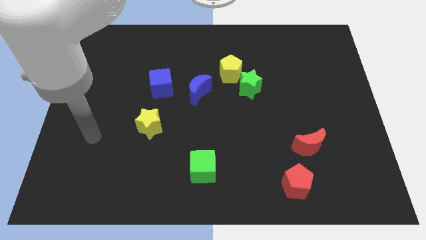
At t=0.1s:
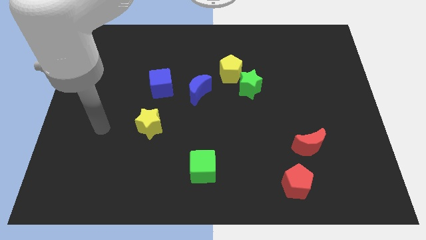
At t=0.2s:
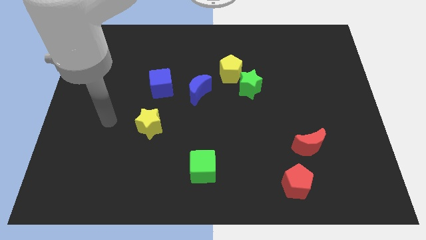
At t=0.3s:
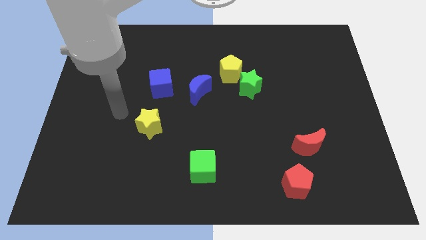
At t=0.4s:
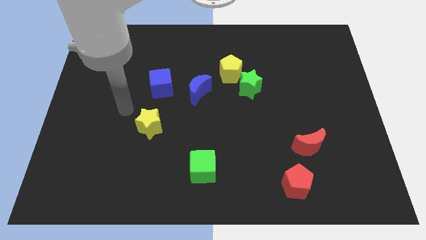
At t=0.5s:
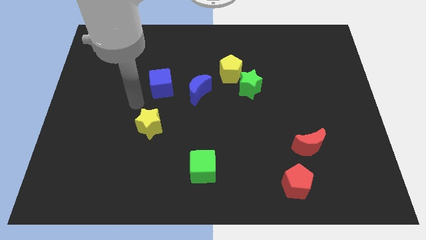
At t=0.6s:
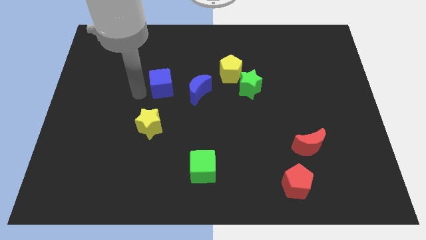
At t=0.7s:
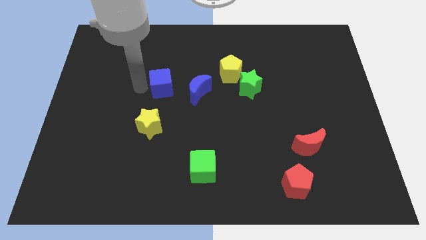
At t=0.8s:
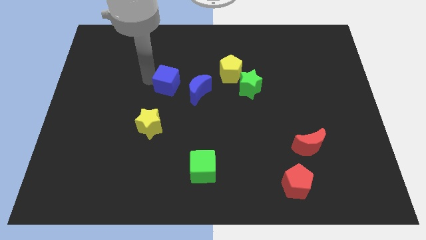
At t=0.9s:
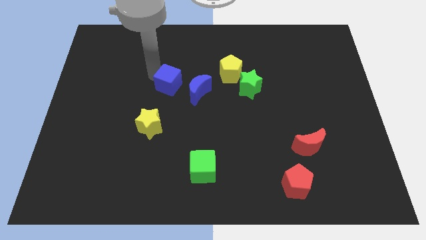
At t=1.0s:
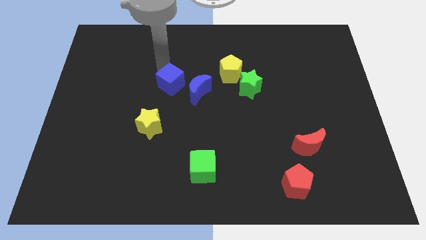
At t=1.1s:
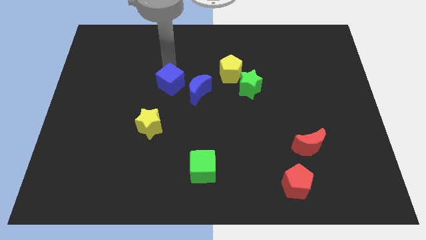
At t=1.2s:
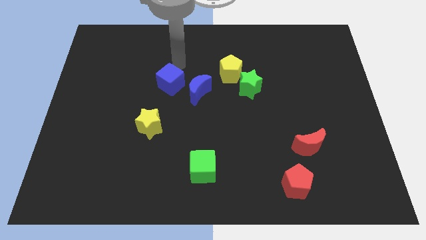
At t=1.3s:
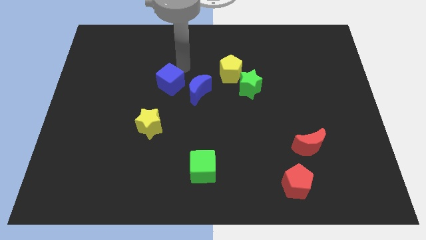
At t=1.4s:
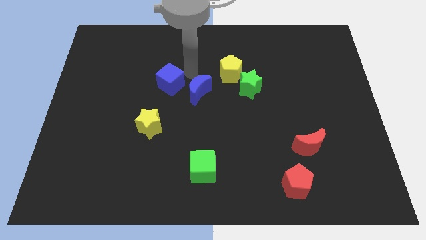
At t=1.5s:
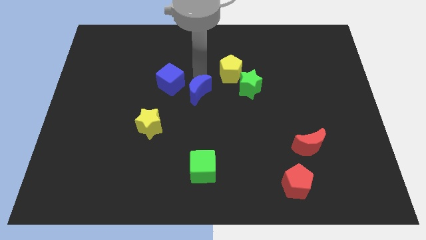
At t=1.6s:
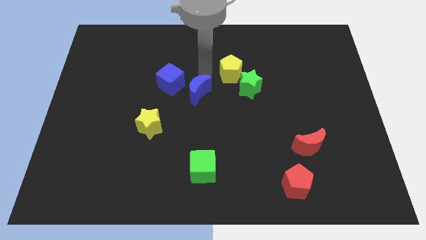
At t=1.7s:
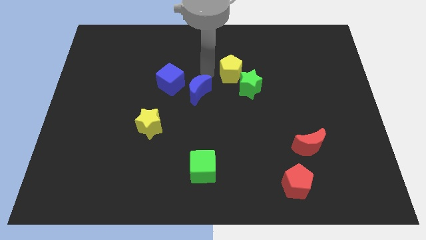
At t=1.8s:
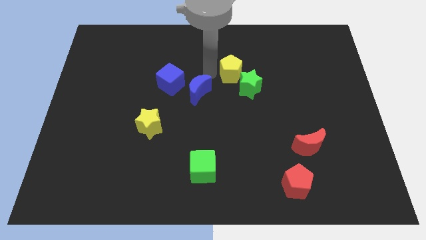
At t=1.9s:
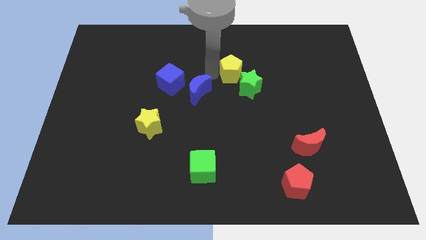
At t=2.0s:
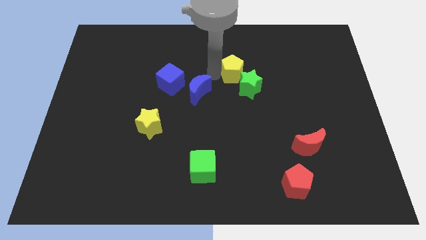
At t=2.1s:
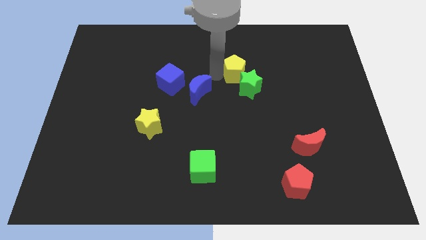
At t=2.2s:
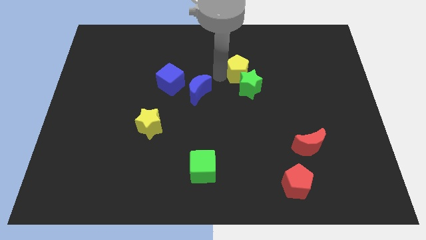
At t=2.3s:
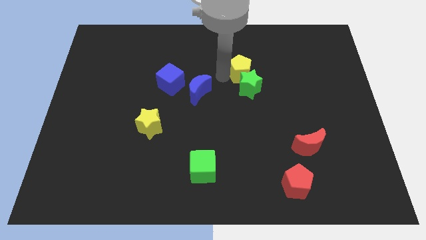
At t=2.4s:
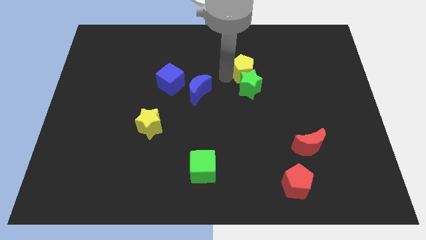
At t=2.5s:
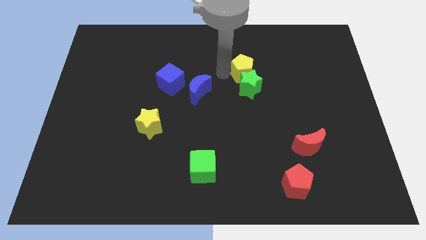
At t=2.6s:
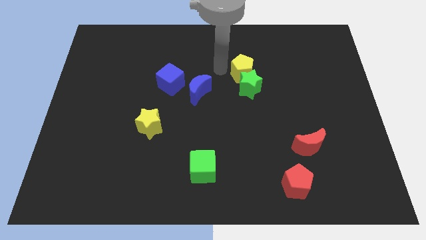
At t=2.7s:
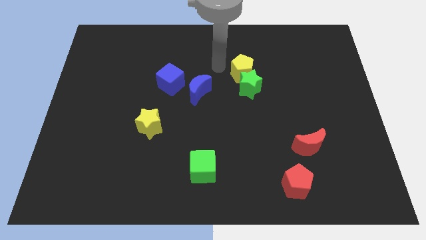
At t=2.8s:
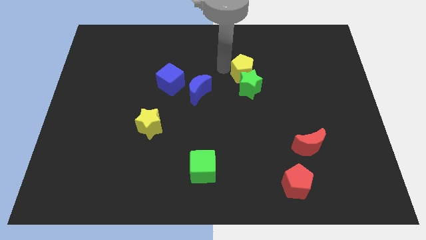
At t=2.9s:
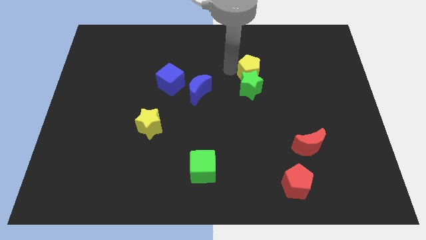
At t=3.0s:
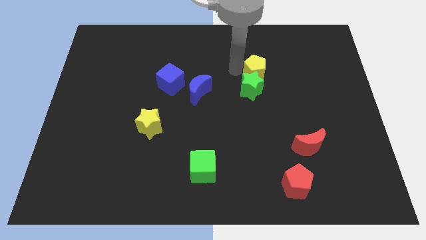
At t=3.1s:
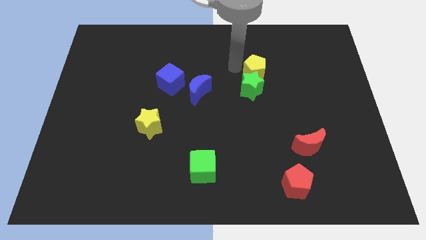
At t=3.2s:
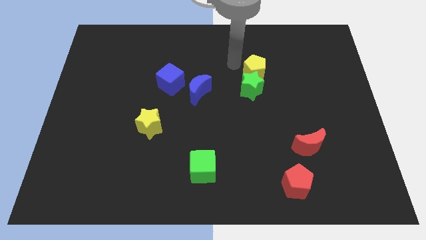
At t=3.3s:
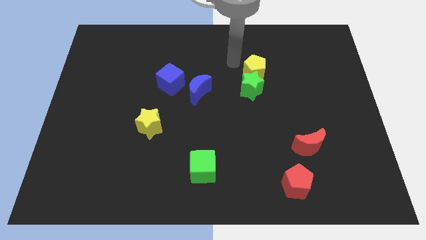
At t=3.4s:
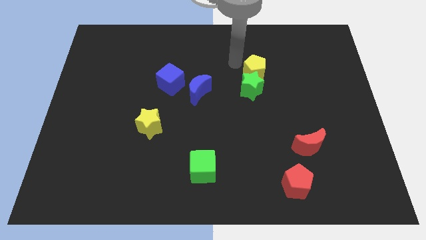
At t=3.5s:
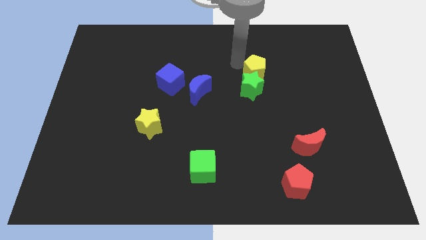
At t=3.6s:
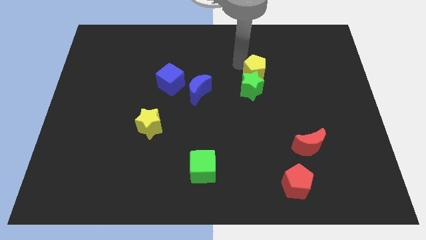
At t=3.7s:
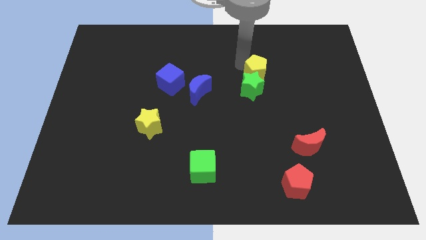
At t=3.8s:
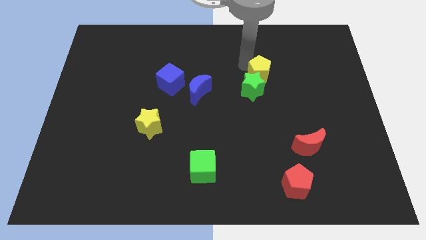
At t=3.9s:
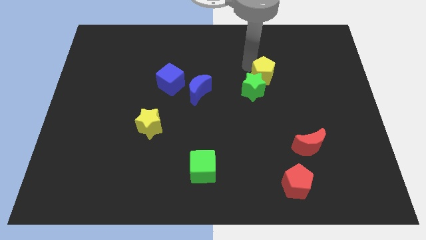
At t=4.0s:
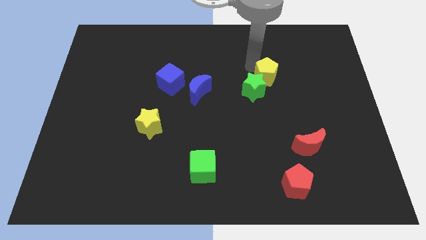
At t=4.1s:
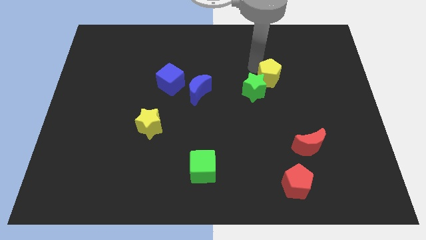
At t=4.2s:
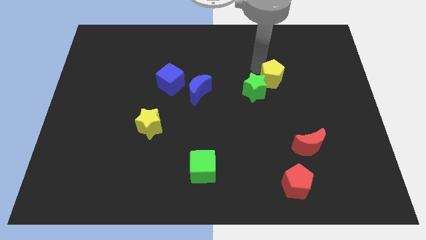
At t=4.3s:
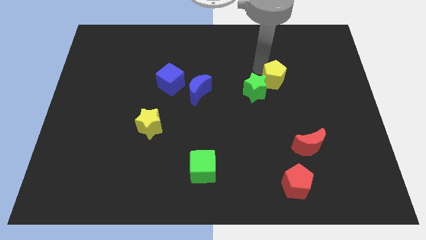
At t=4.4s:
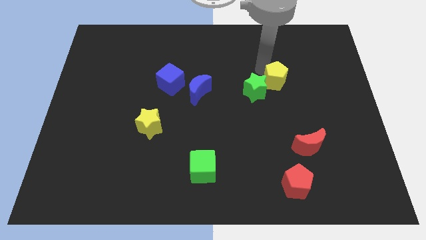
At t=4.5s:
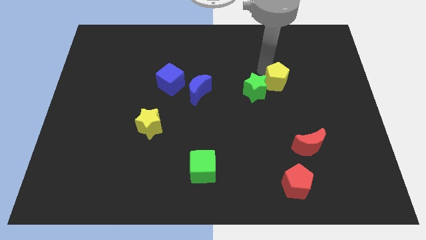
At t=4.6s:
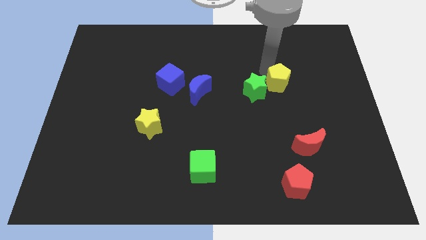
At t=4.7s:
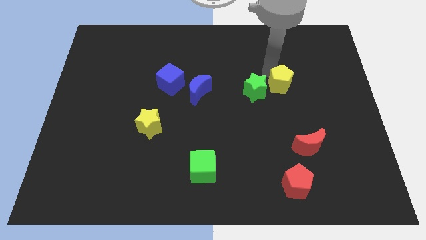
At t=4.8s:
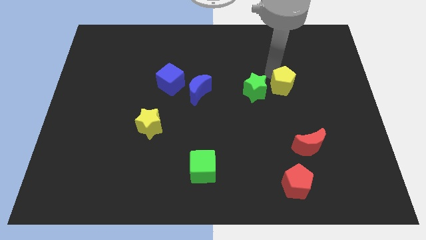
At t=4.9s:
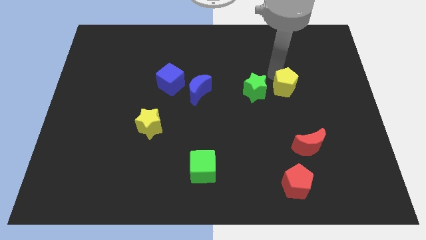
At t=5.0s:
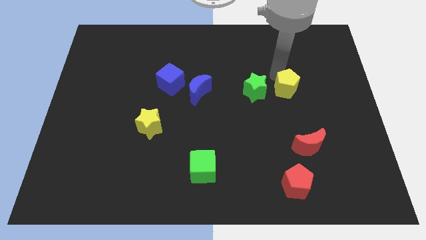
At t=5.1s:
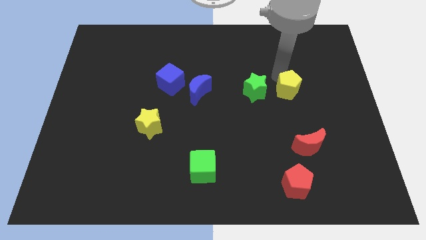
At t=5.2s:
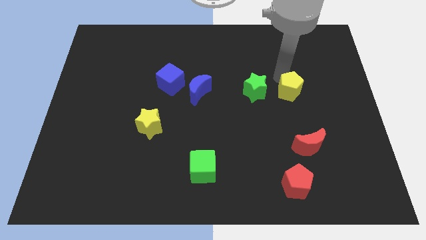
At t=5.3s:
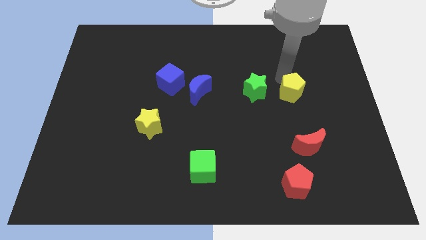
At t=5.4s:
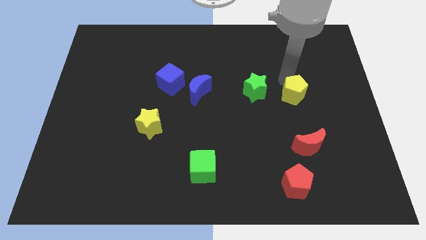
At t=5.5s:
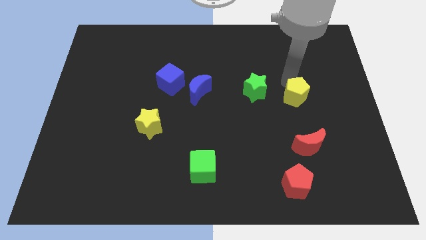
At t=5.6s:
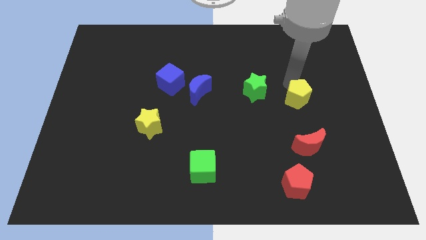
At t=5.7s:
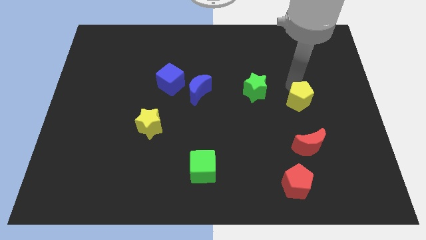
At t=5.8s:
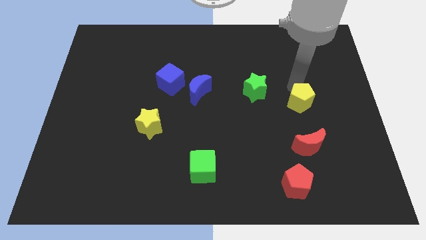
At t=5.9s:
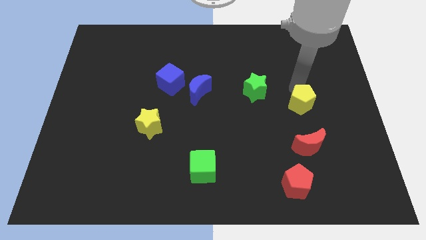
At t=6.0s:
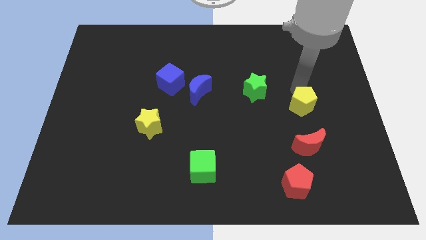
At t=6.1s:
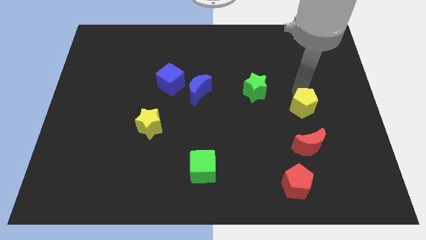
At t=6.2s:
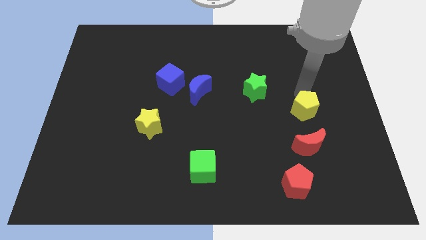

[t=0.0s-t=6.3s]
push the yellow pentagon downwards and to the right diagonally

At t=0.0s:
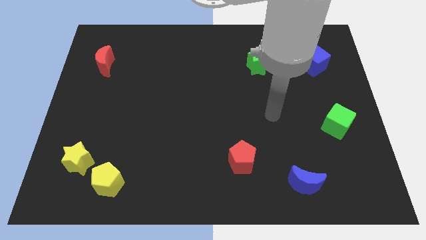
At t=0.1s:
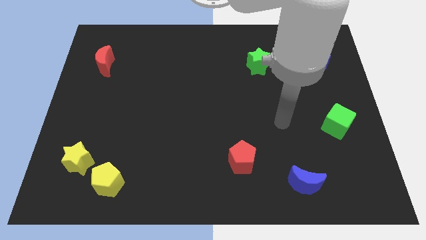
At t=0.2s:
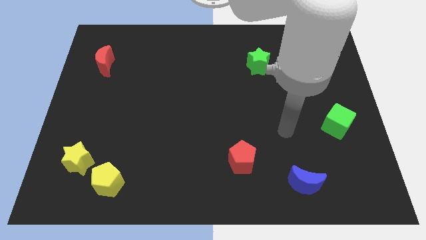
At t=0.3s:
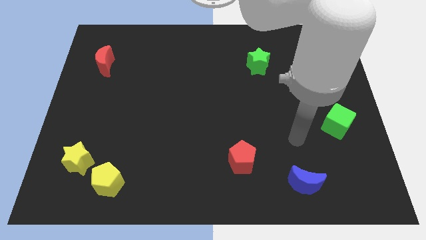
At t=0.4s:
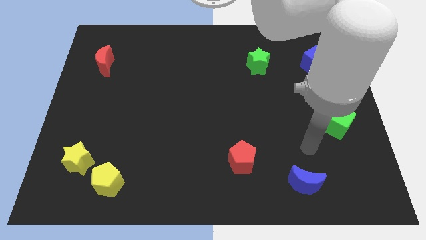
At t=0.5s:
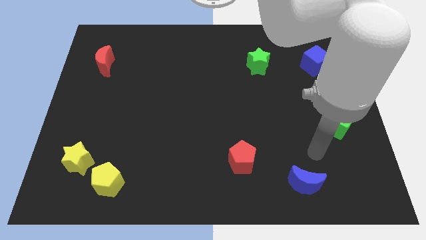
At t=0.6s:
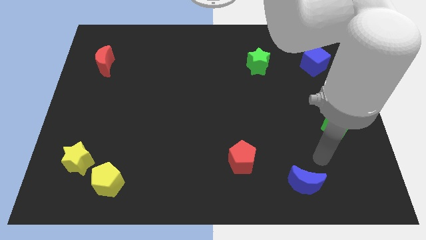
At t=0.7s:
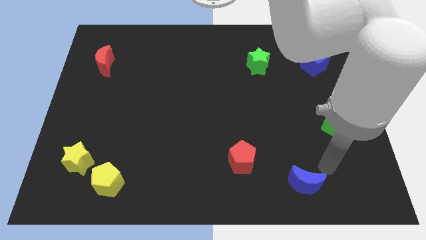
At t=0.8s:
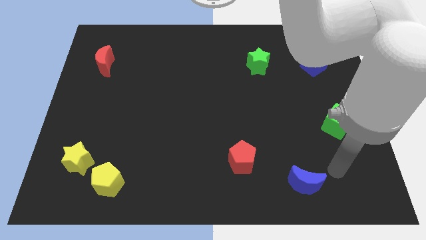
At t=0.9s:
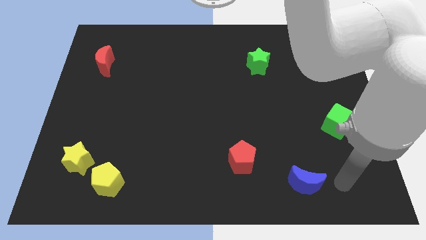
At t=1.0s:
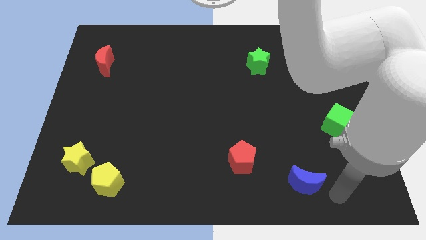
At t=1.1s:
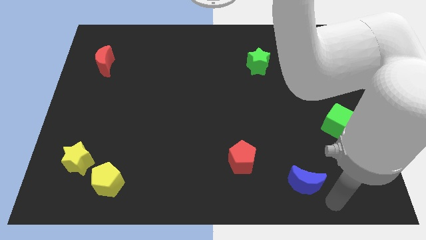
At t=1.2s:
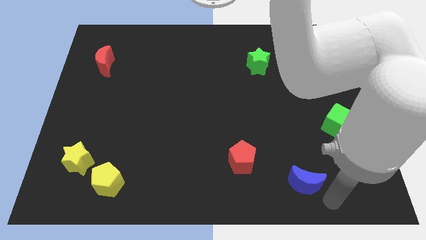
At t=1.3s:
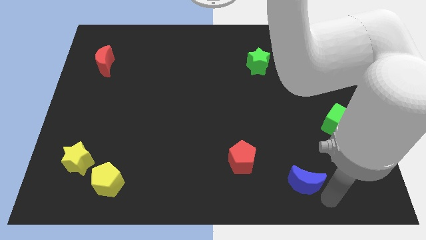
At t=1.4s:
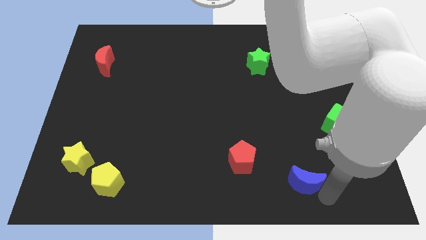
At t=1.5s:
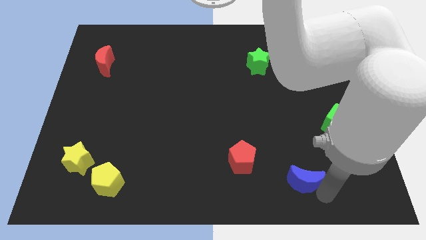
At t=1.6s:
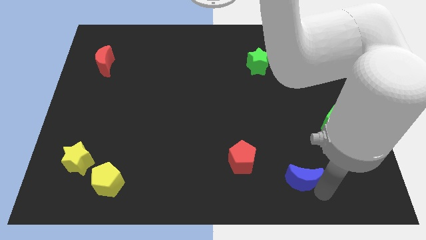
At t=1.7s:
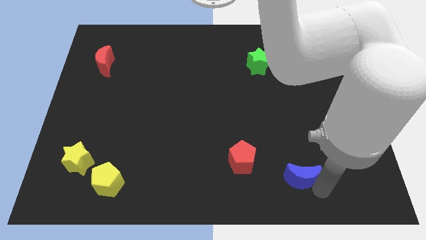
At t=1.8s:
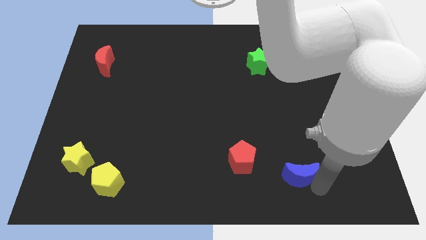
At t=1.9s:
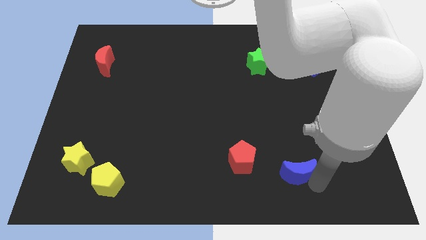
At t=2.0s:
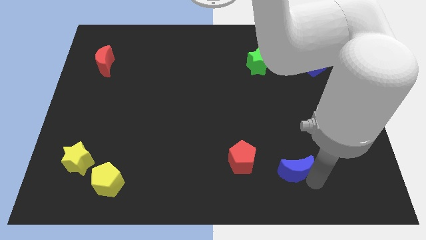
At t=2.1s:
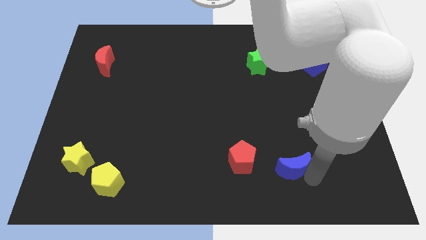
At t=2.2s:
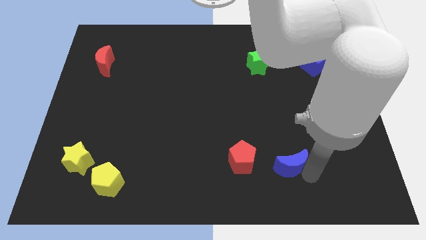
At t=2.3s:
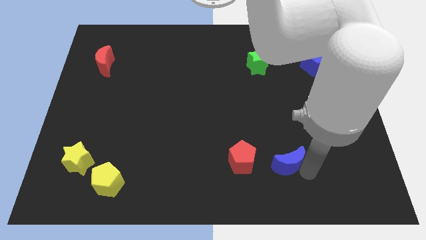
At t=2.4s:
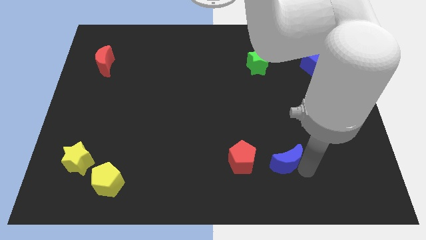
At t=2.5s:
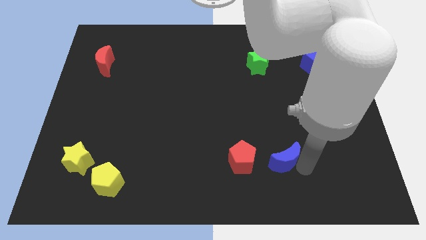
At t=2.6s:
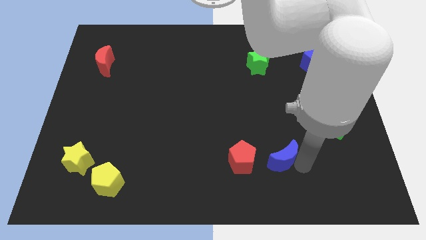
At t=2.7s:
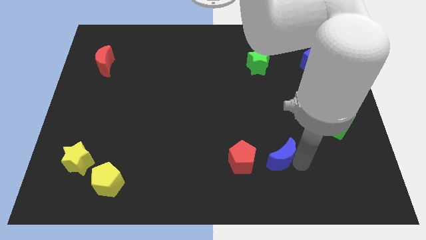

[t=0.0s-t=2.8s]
slide the blue moon upwards and then to the left a little bit
